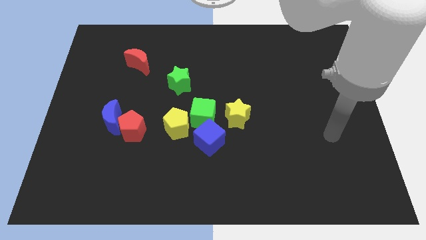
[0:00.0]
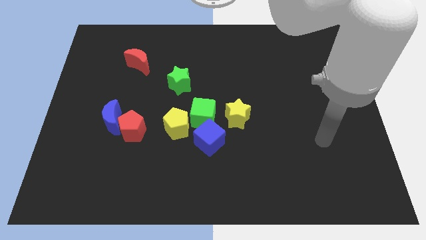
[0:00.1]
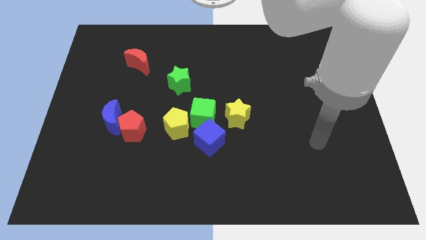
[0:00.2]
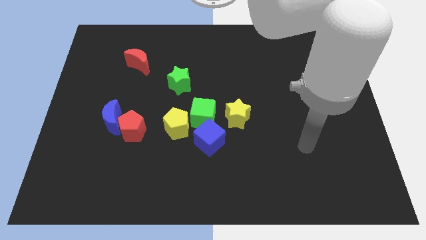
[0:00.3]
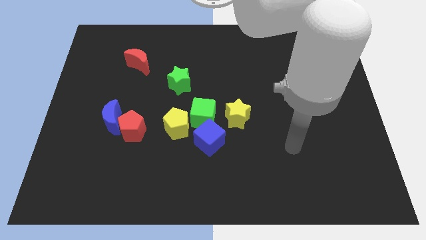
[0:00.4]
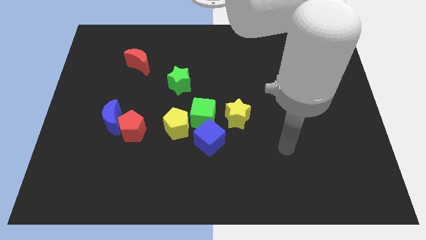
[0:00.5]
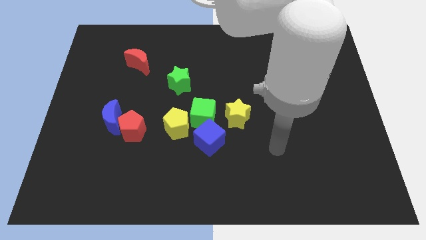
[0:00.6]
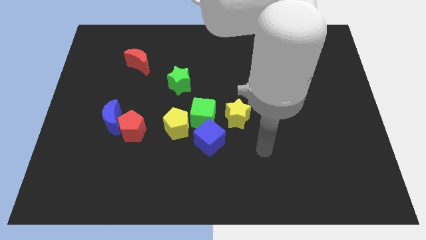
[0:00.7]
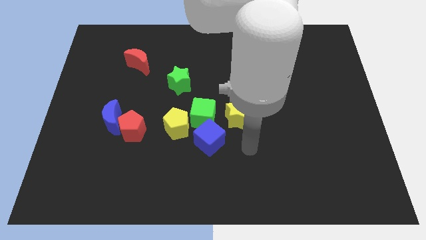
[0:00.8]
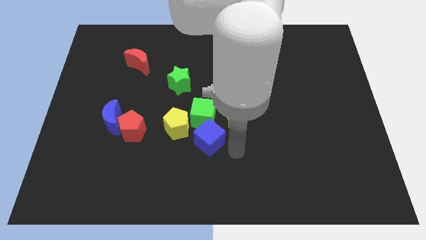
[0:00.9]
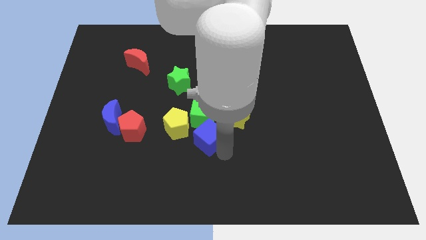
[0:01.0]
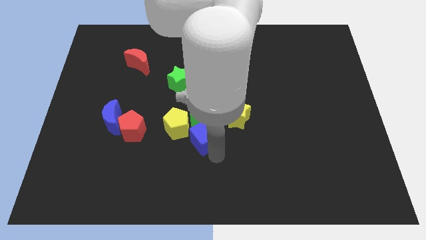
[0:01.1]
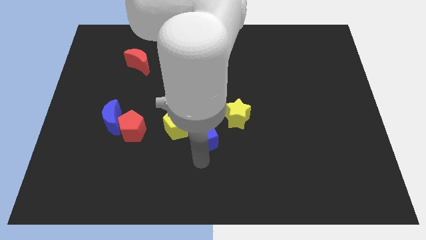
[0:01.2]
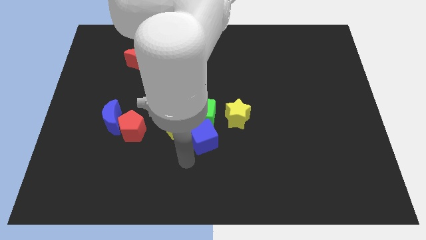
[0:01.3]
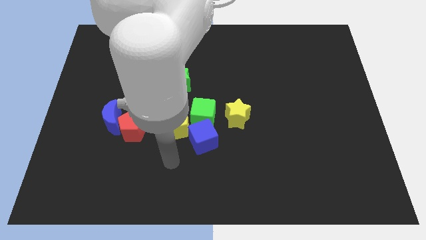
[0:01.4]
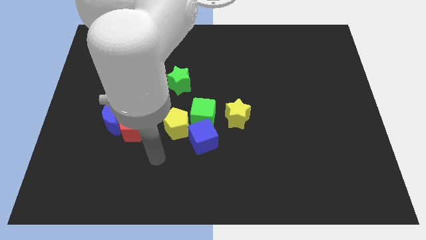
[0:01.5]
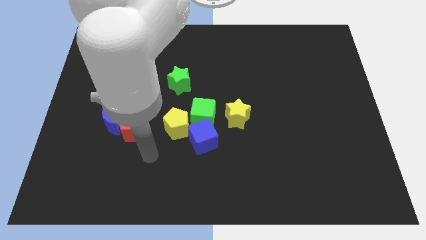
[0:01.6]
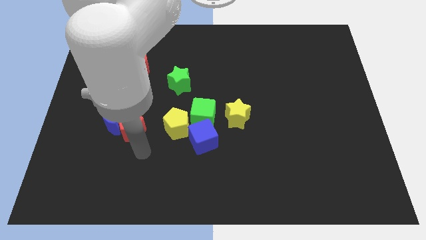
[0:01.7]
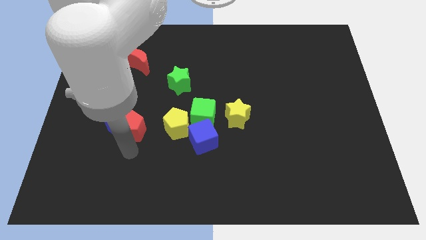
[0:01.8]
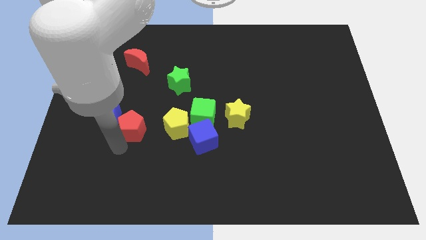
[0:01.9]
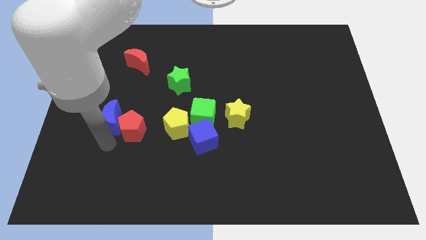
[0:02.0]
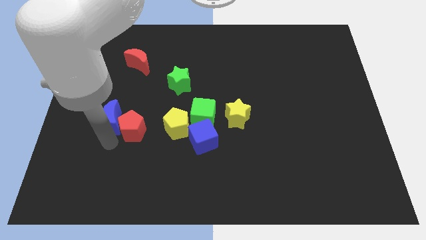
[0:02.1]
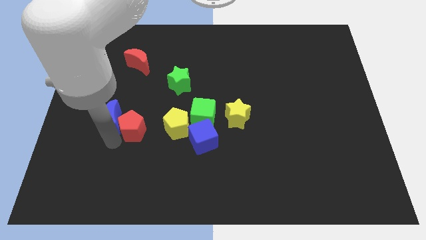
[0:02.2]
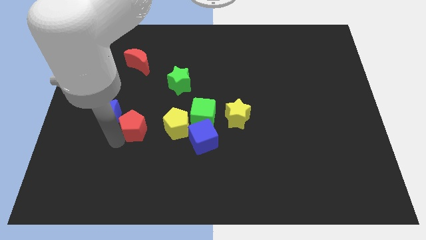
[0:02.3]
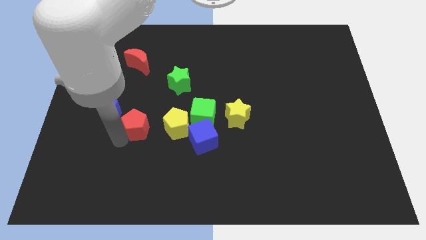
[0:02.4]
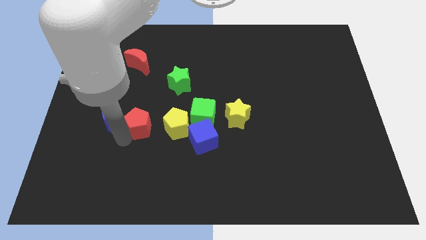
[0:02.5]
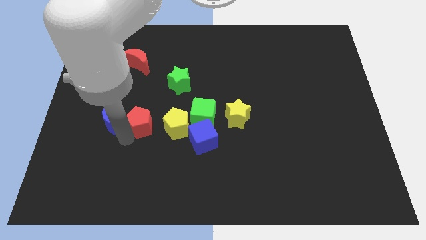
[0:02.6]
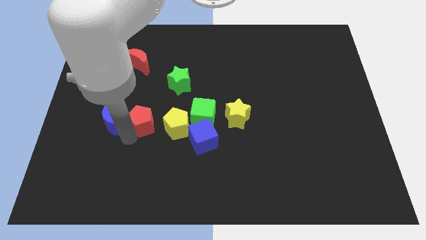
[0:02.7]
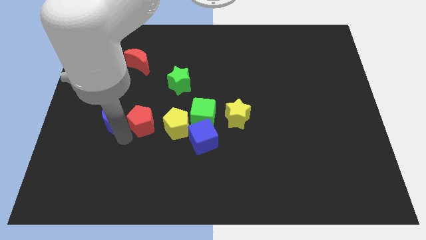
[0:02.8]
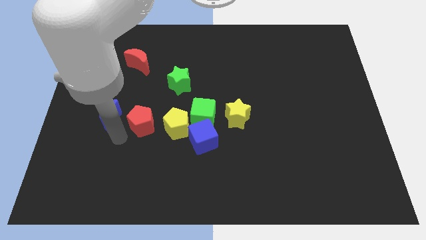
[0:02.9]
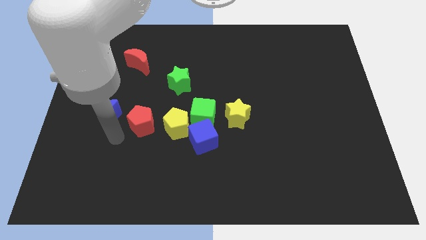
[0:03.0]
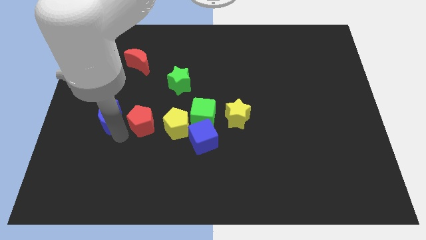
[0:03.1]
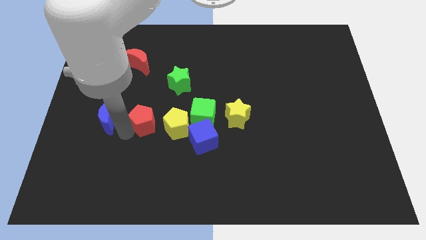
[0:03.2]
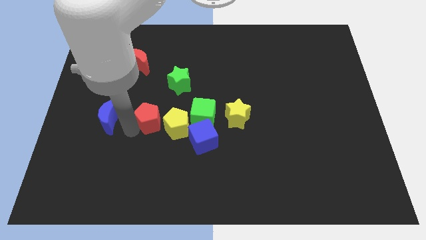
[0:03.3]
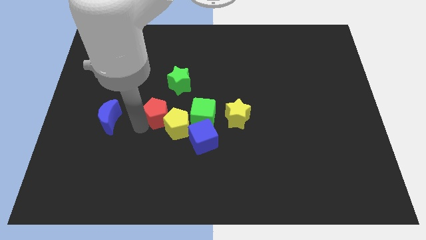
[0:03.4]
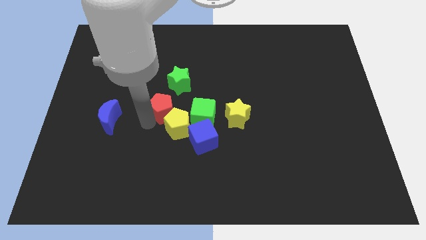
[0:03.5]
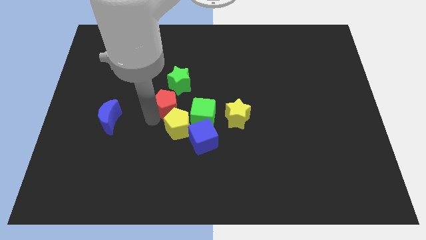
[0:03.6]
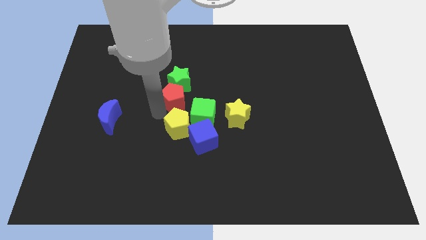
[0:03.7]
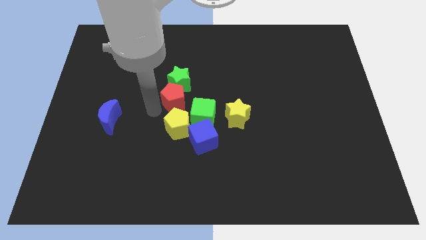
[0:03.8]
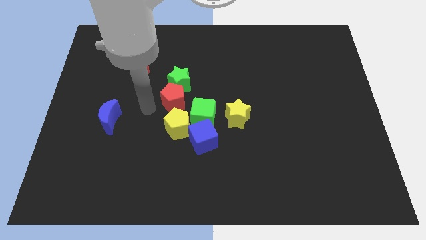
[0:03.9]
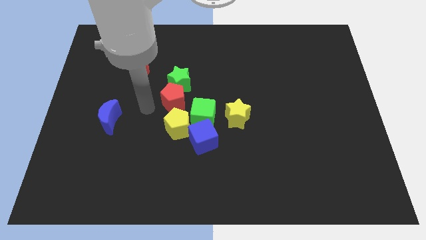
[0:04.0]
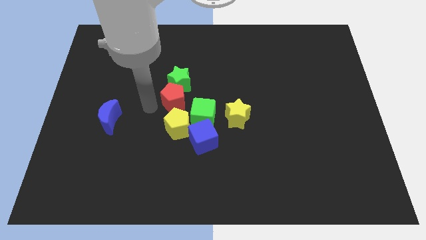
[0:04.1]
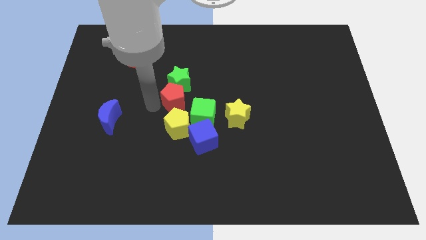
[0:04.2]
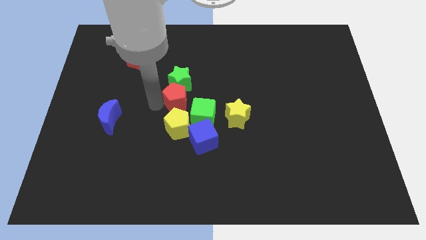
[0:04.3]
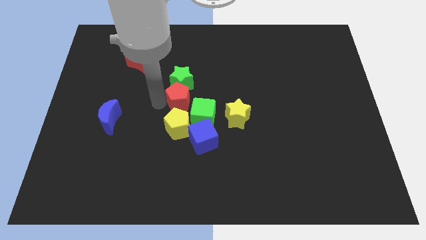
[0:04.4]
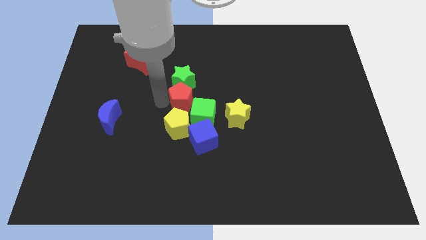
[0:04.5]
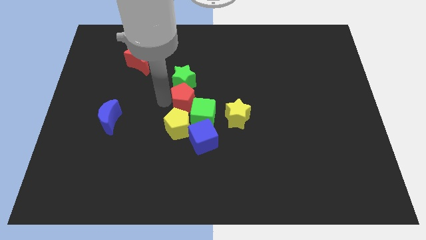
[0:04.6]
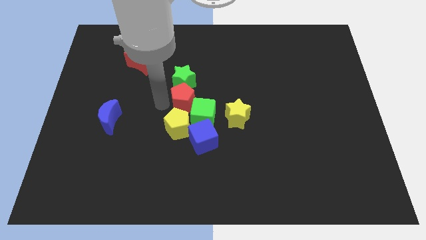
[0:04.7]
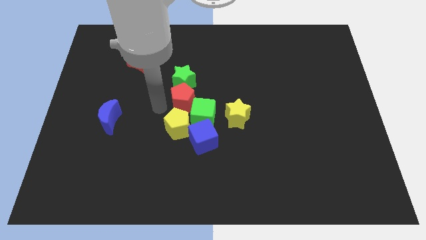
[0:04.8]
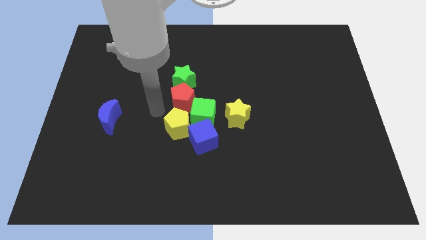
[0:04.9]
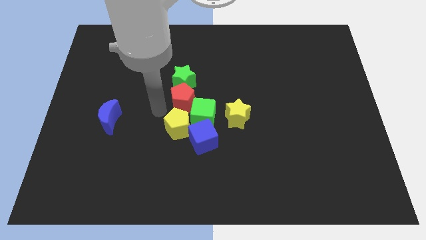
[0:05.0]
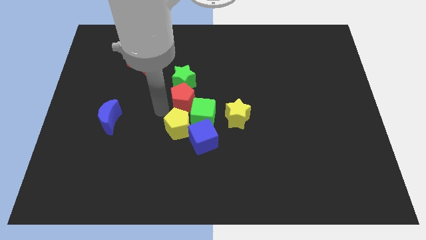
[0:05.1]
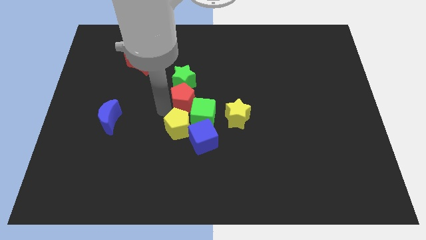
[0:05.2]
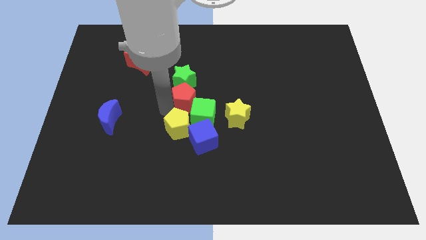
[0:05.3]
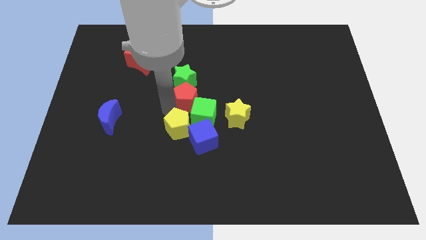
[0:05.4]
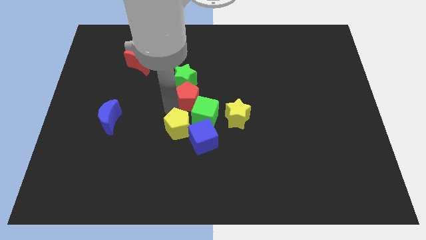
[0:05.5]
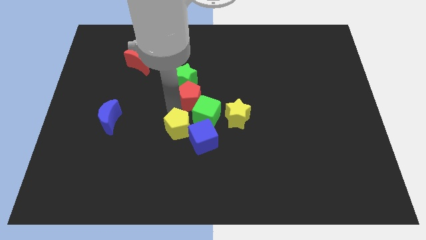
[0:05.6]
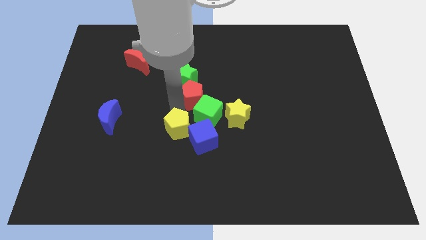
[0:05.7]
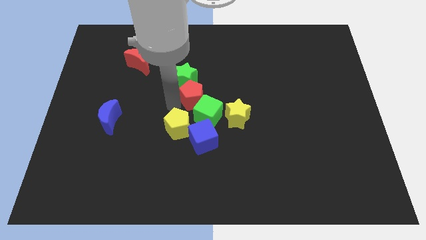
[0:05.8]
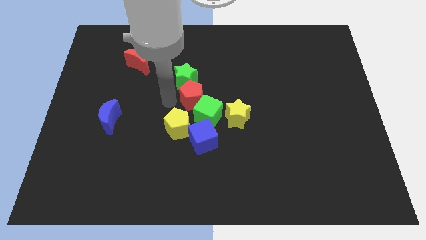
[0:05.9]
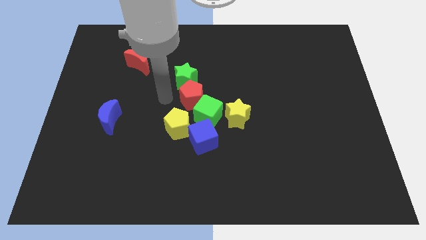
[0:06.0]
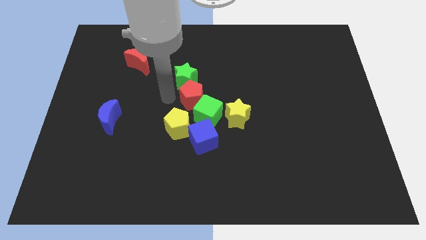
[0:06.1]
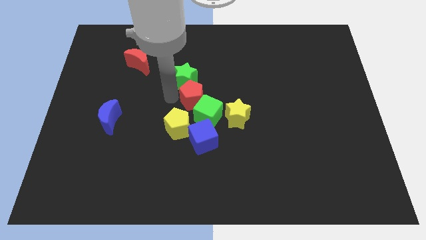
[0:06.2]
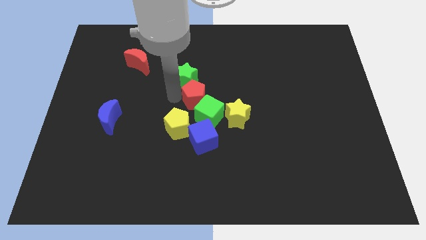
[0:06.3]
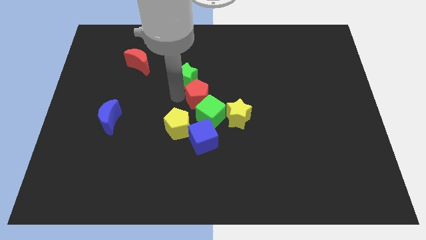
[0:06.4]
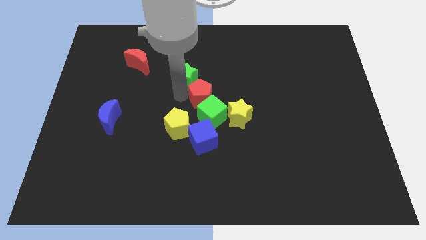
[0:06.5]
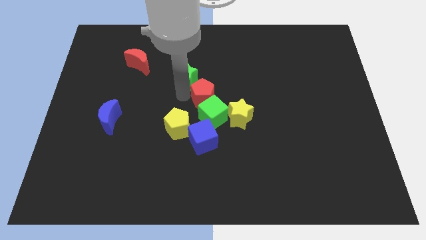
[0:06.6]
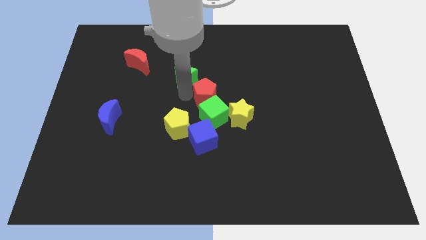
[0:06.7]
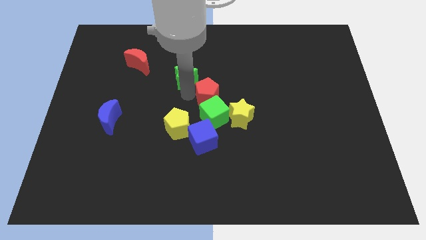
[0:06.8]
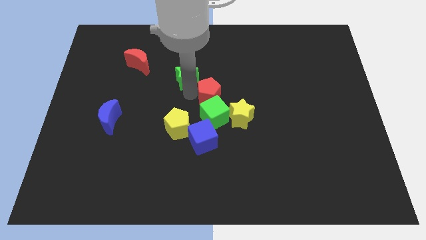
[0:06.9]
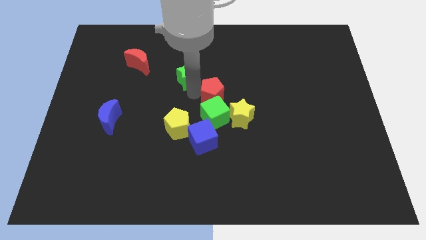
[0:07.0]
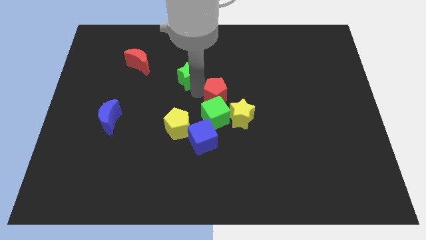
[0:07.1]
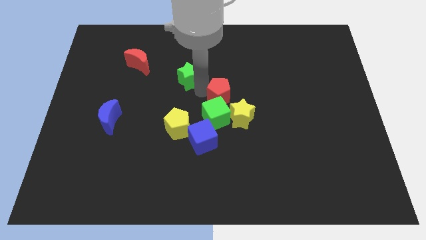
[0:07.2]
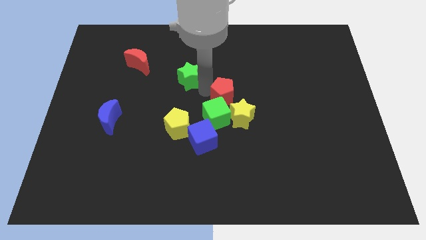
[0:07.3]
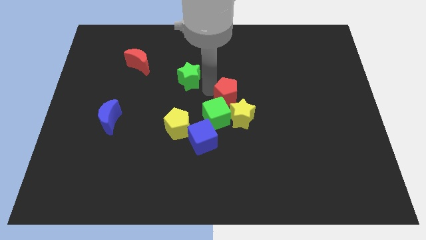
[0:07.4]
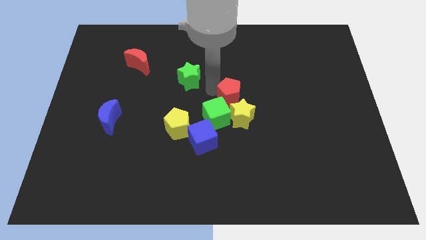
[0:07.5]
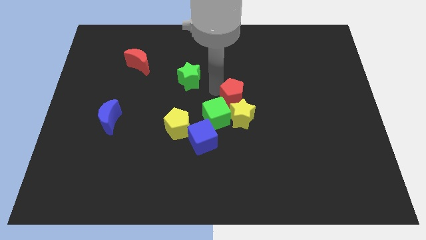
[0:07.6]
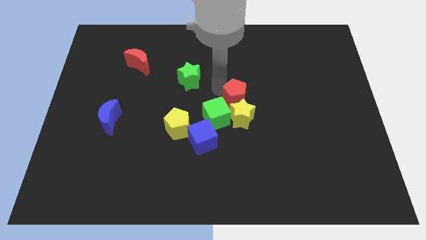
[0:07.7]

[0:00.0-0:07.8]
push the red pentagon to the yellow star

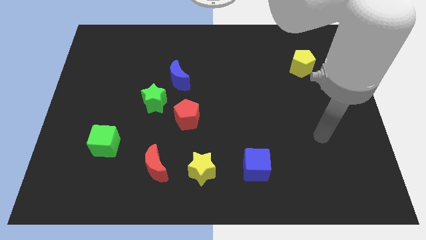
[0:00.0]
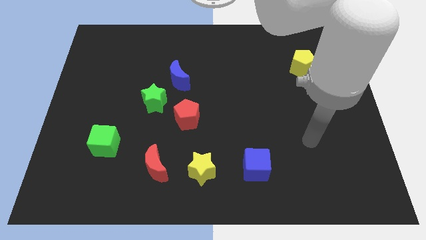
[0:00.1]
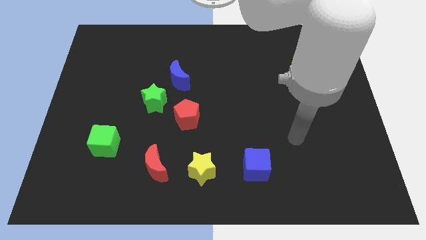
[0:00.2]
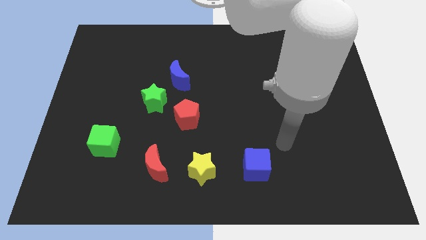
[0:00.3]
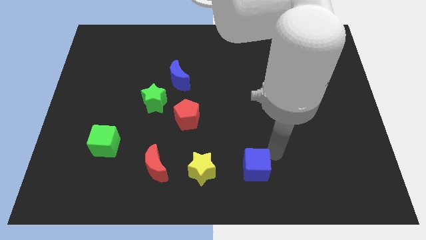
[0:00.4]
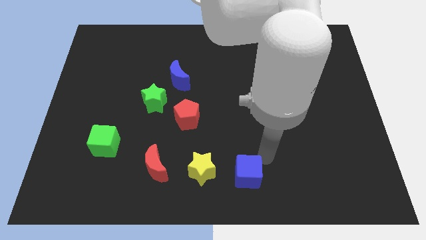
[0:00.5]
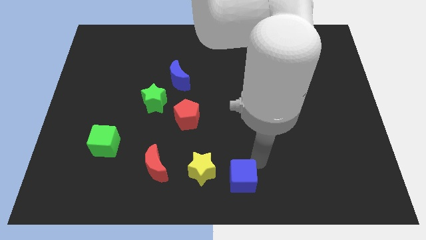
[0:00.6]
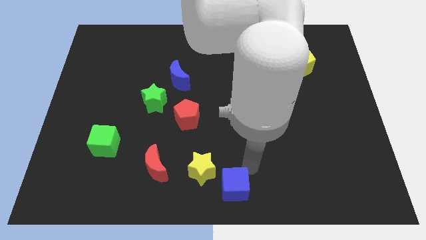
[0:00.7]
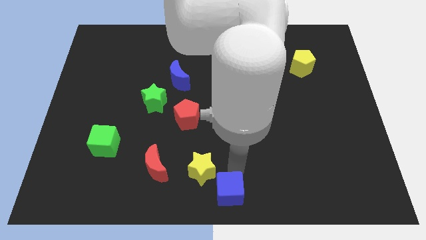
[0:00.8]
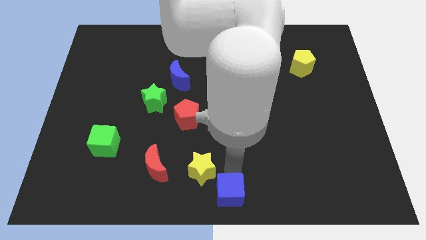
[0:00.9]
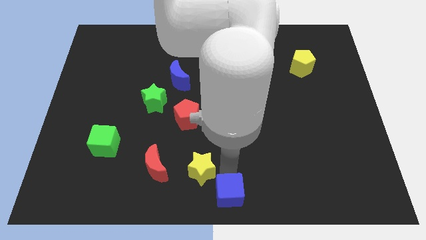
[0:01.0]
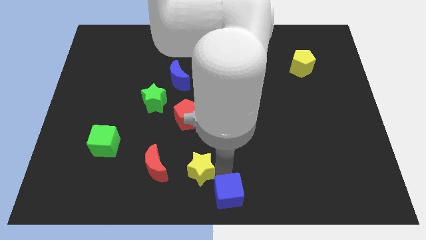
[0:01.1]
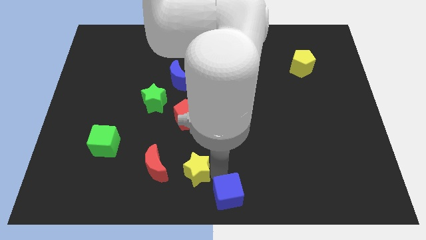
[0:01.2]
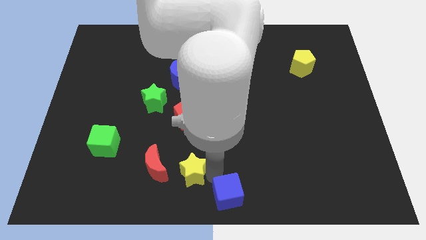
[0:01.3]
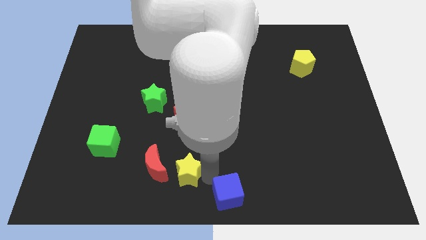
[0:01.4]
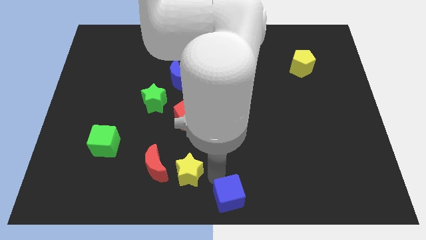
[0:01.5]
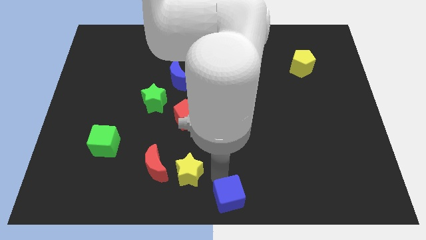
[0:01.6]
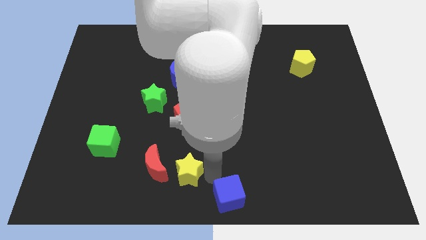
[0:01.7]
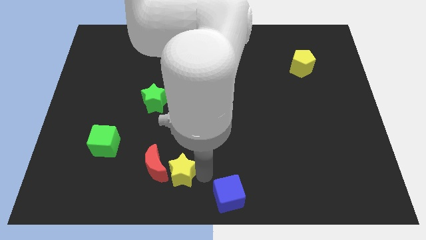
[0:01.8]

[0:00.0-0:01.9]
push the yellow star next to the red moon
